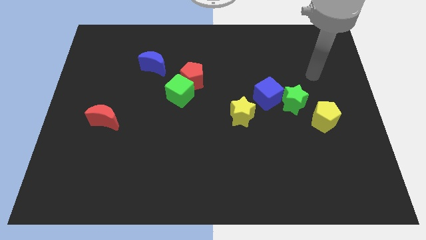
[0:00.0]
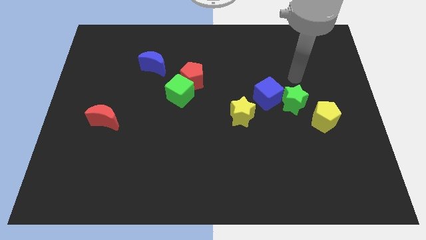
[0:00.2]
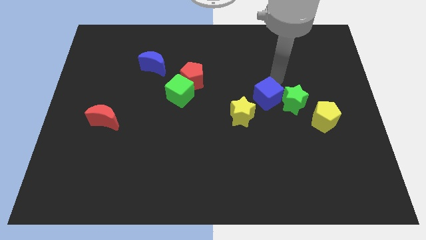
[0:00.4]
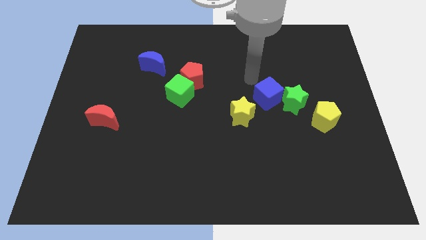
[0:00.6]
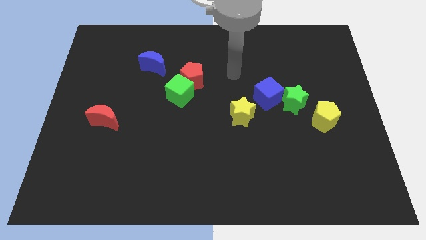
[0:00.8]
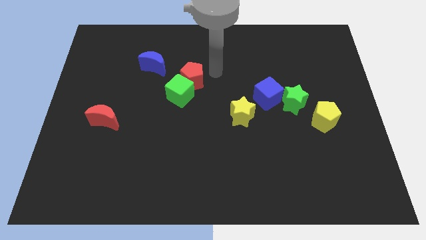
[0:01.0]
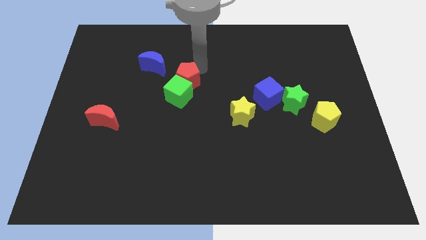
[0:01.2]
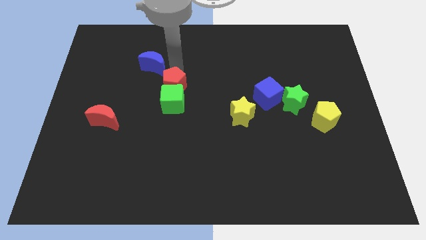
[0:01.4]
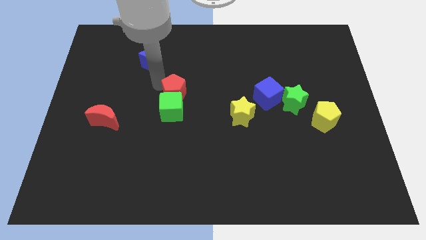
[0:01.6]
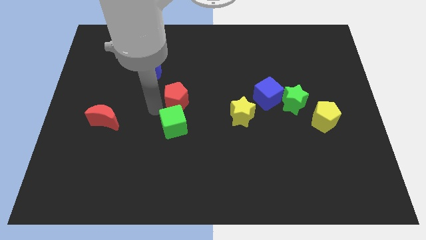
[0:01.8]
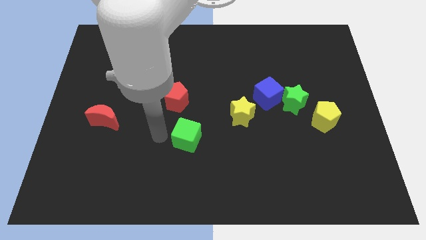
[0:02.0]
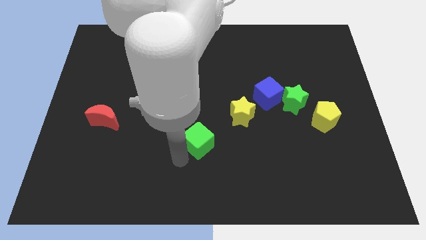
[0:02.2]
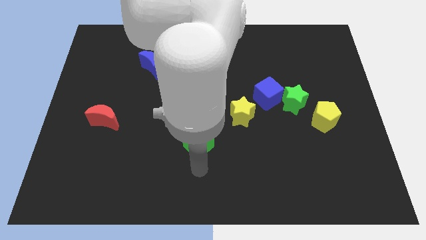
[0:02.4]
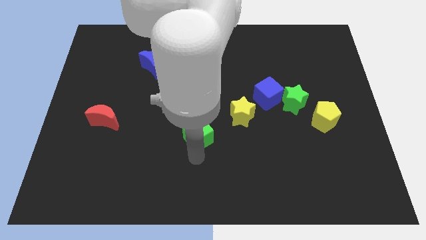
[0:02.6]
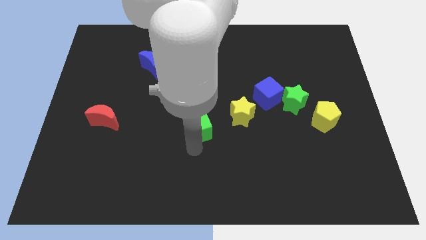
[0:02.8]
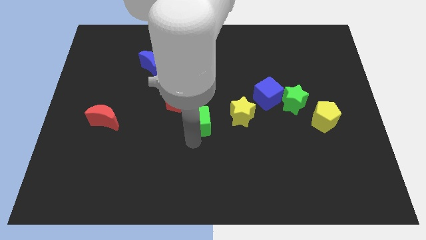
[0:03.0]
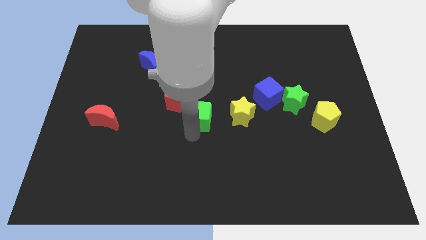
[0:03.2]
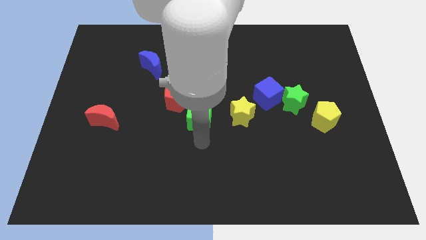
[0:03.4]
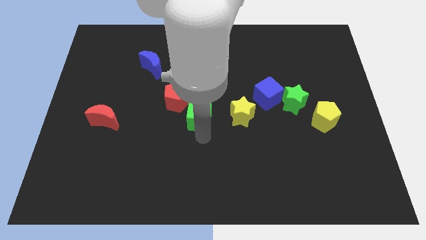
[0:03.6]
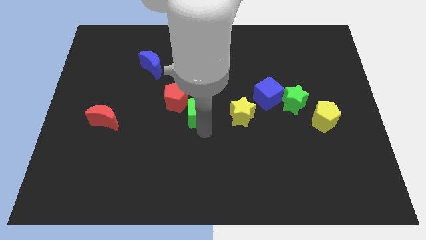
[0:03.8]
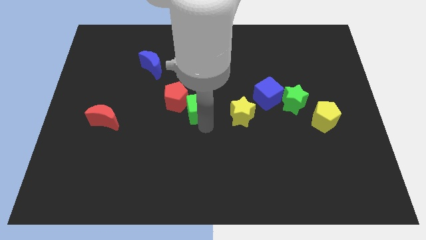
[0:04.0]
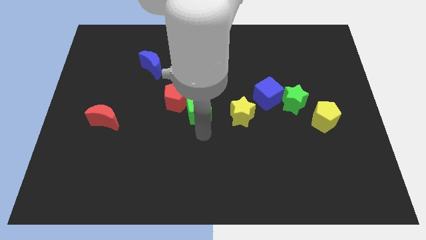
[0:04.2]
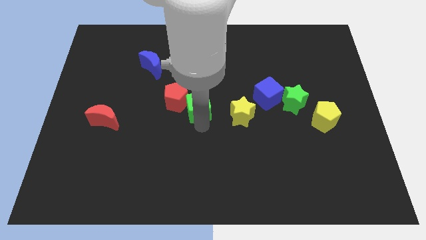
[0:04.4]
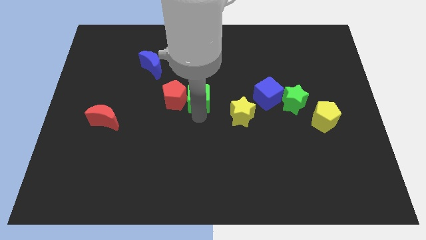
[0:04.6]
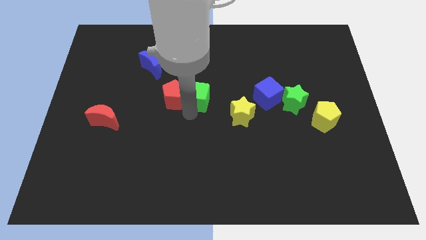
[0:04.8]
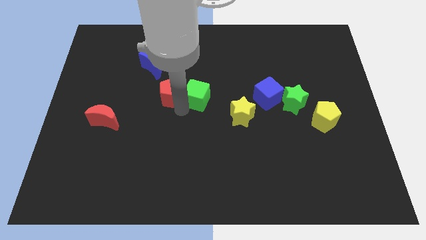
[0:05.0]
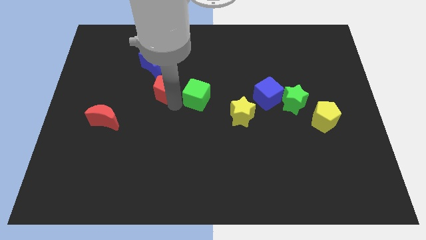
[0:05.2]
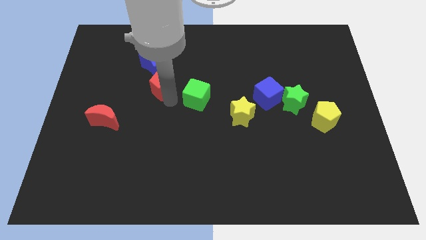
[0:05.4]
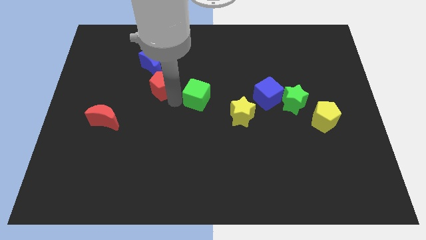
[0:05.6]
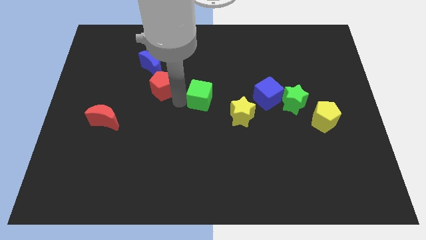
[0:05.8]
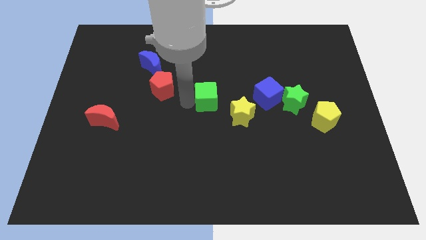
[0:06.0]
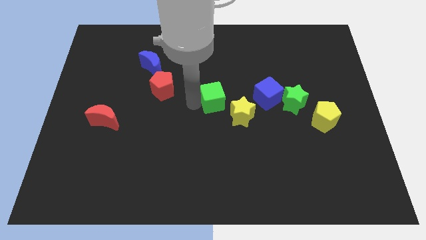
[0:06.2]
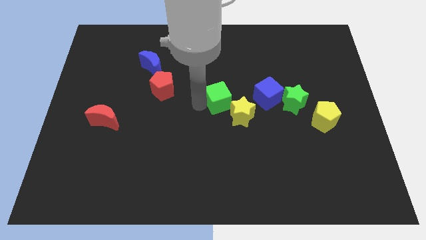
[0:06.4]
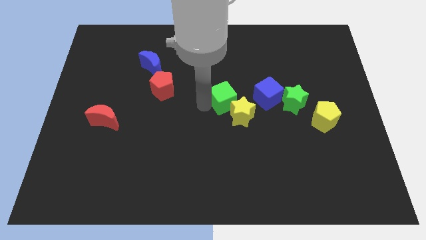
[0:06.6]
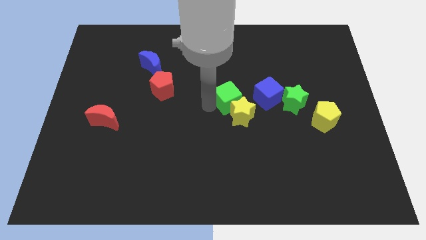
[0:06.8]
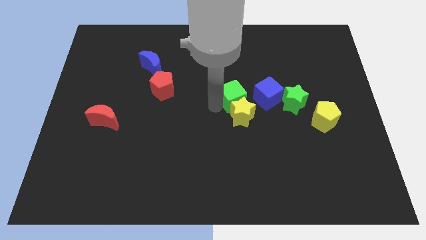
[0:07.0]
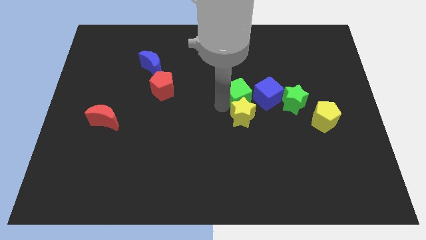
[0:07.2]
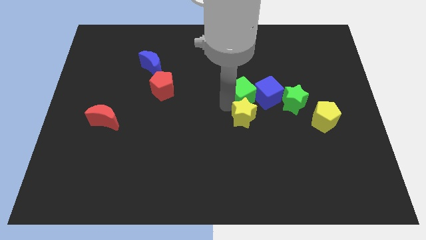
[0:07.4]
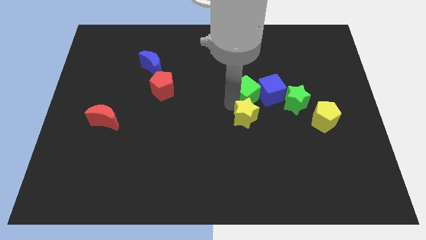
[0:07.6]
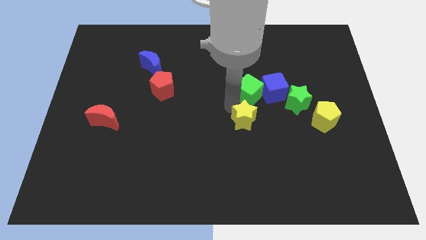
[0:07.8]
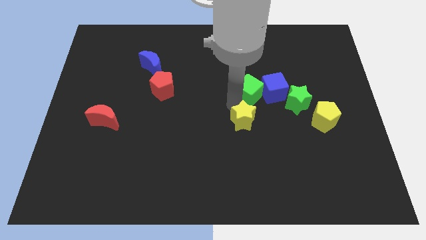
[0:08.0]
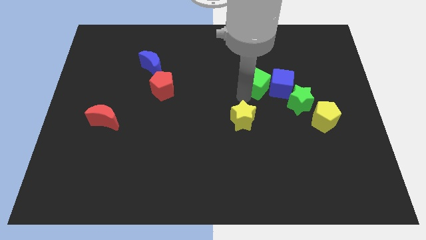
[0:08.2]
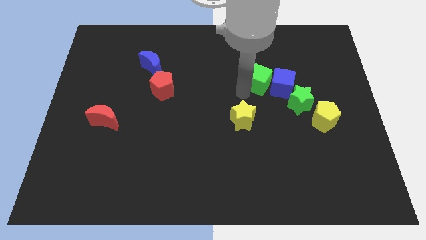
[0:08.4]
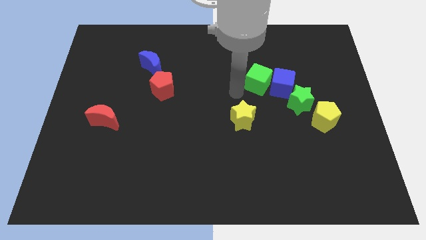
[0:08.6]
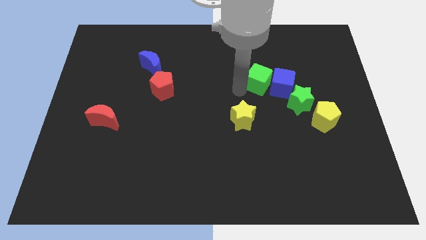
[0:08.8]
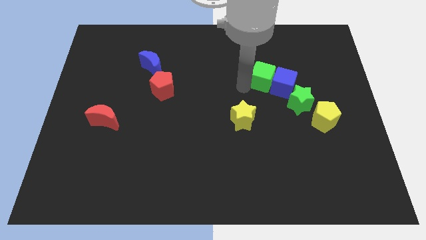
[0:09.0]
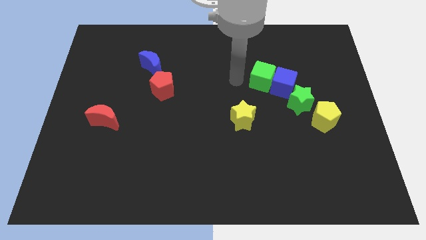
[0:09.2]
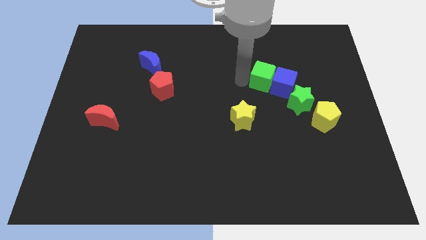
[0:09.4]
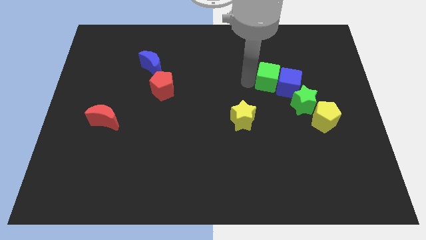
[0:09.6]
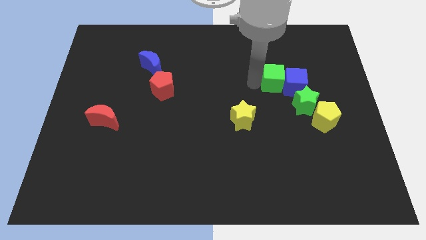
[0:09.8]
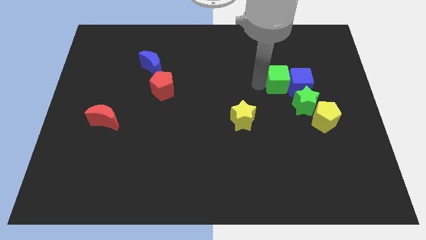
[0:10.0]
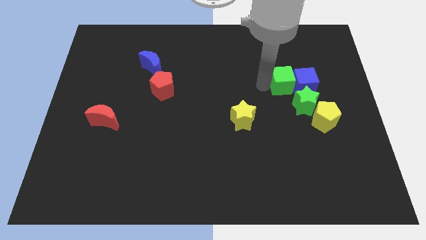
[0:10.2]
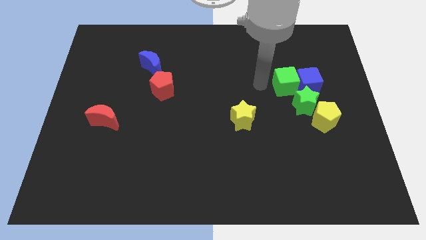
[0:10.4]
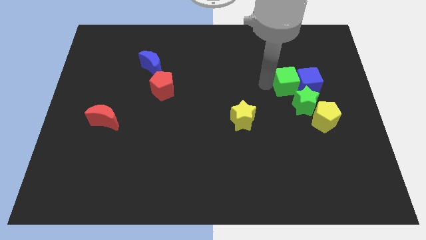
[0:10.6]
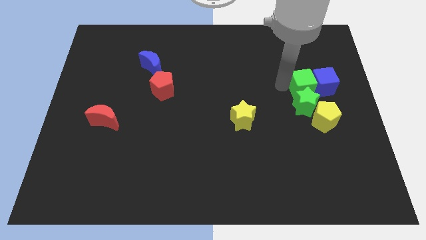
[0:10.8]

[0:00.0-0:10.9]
move the green cube to the top of the yellow pentagon

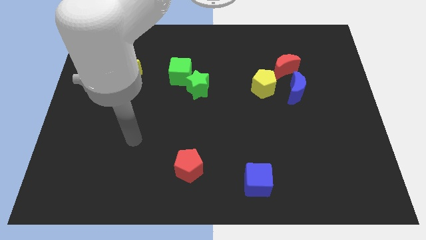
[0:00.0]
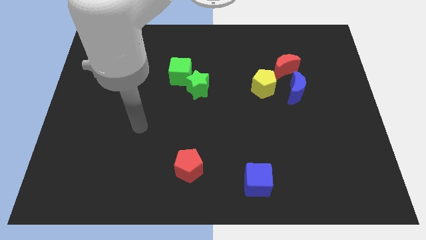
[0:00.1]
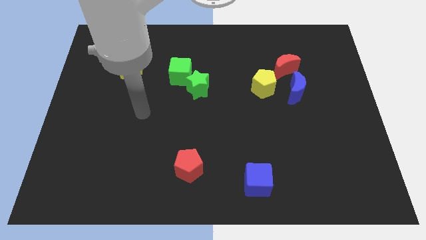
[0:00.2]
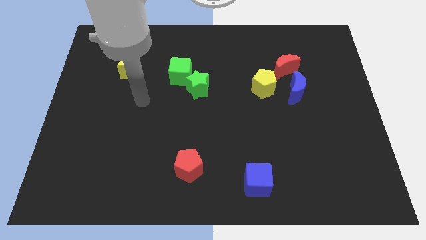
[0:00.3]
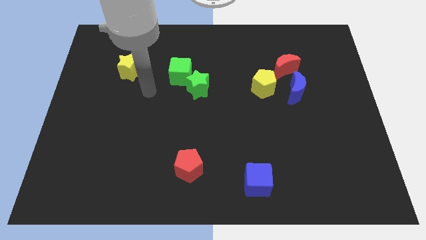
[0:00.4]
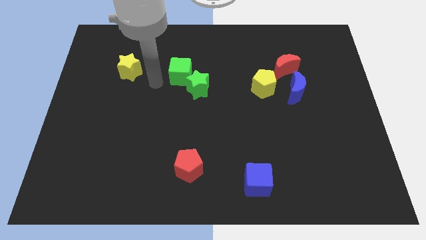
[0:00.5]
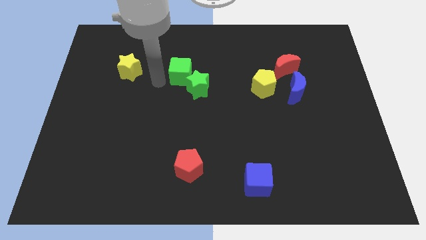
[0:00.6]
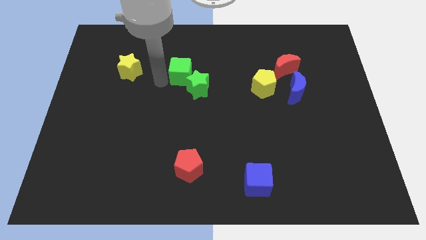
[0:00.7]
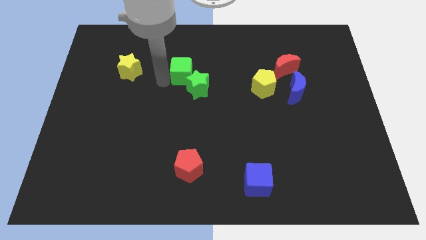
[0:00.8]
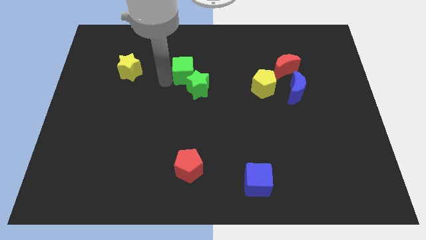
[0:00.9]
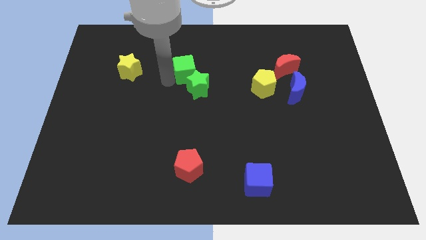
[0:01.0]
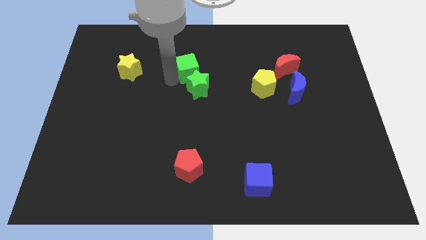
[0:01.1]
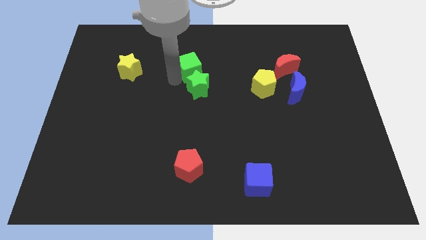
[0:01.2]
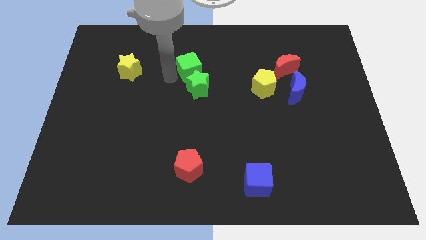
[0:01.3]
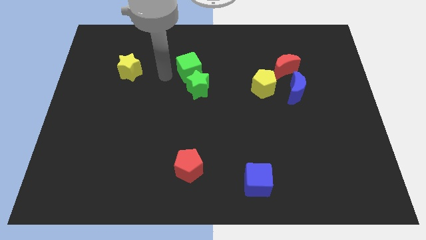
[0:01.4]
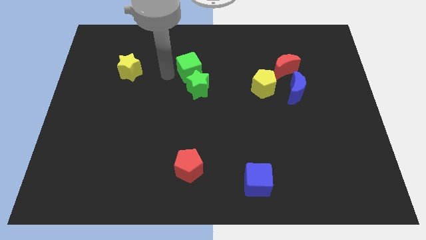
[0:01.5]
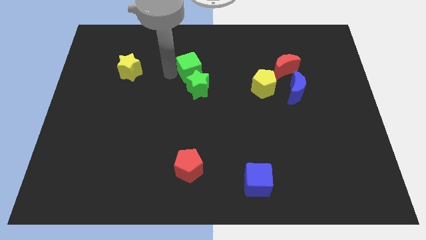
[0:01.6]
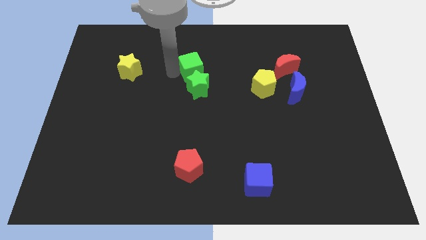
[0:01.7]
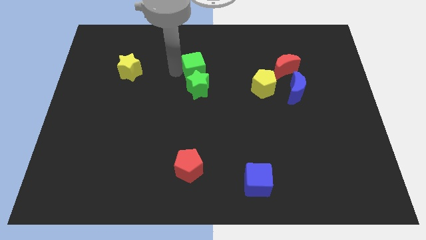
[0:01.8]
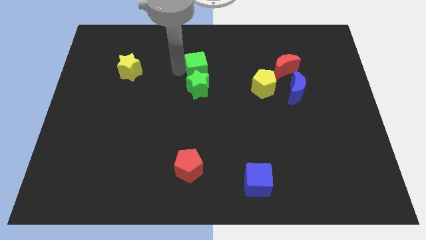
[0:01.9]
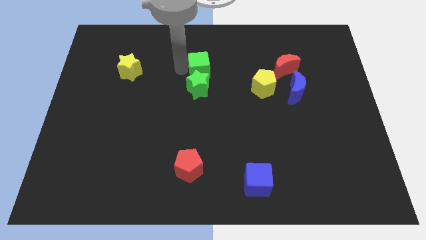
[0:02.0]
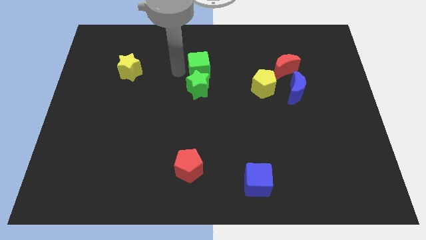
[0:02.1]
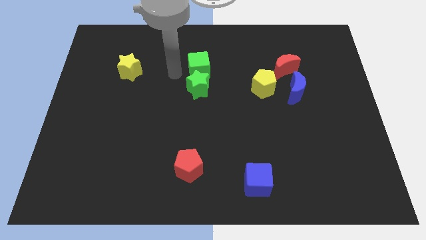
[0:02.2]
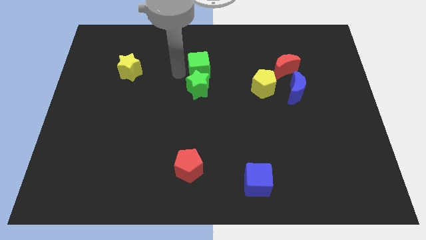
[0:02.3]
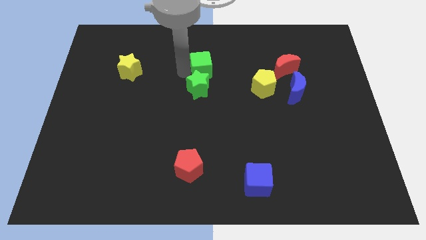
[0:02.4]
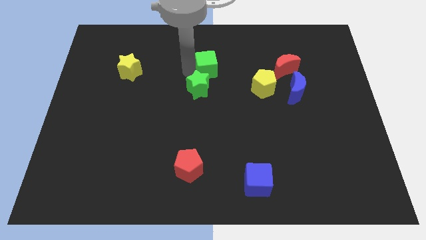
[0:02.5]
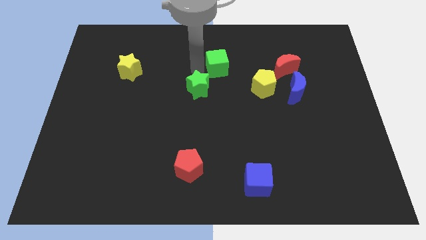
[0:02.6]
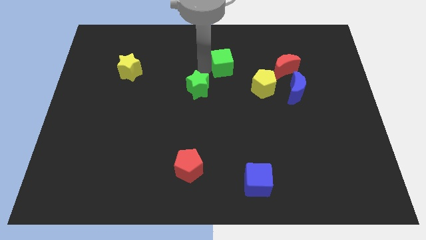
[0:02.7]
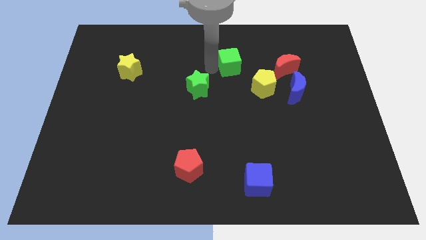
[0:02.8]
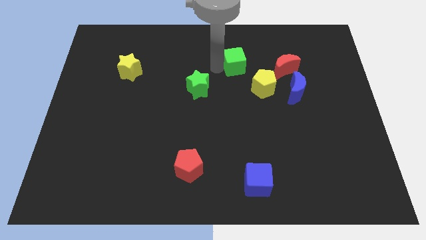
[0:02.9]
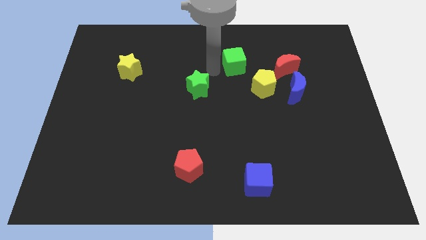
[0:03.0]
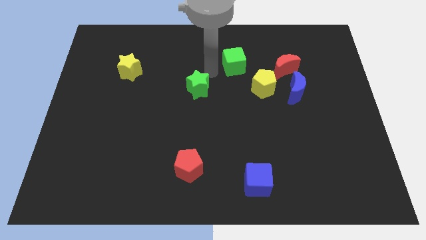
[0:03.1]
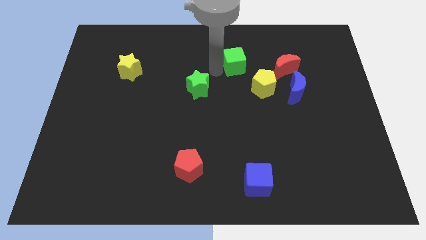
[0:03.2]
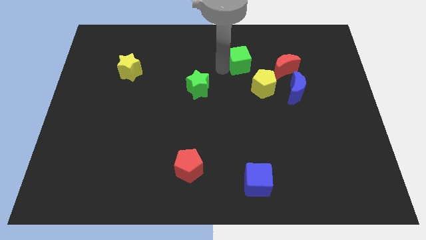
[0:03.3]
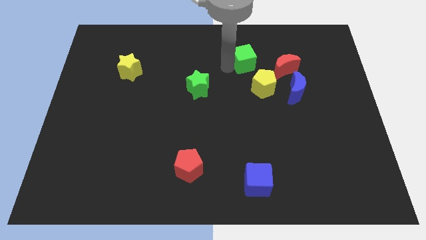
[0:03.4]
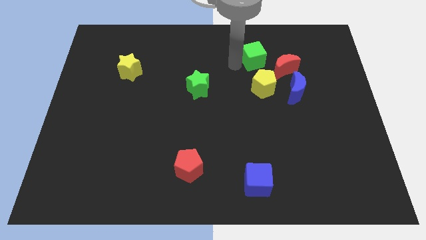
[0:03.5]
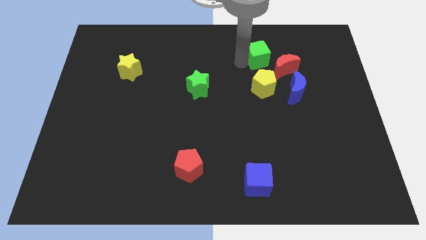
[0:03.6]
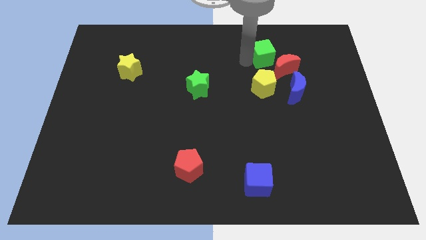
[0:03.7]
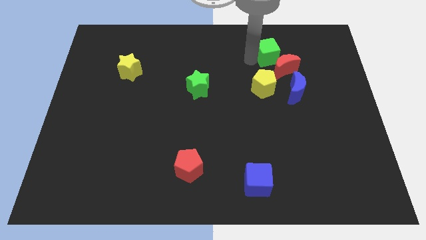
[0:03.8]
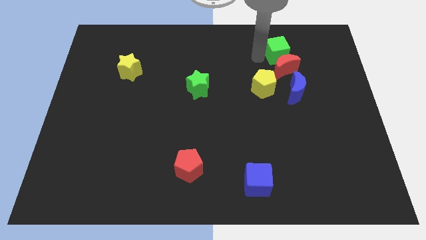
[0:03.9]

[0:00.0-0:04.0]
slide the green cube to the top right side of the red moon
